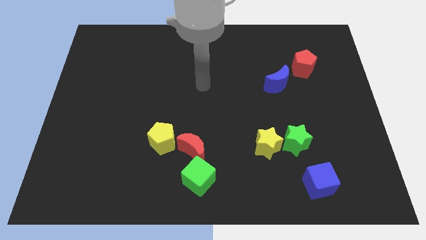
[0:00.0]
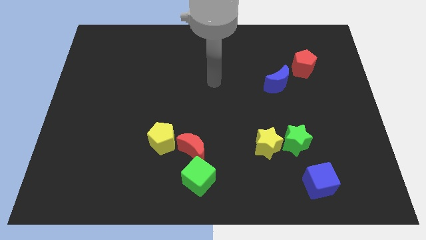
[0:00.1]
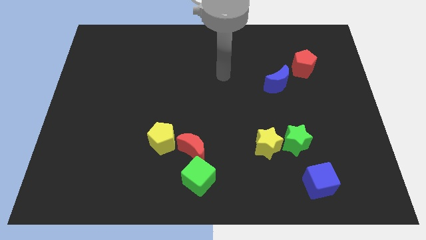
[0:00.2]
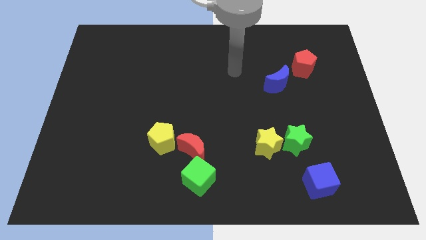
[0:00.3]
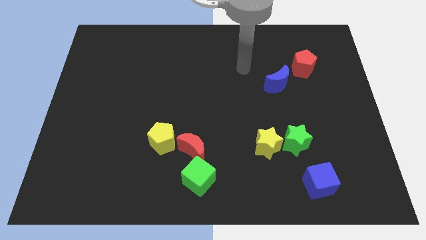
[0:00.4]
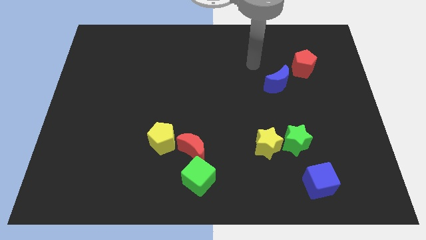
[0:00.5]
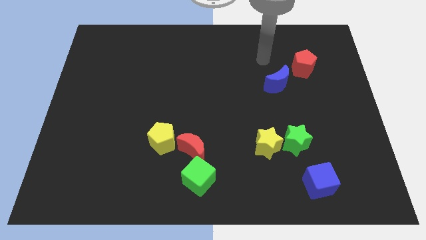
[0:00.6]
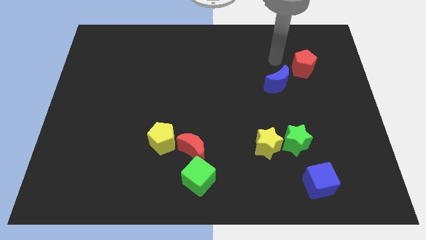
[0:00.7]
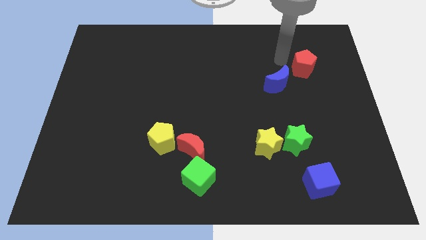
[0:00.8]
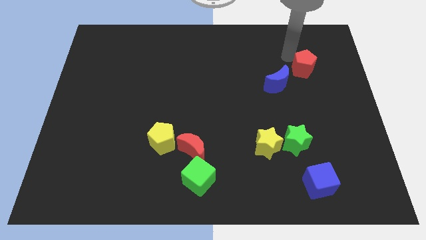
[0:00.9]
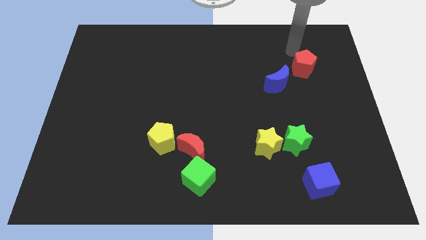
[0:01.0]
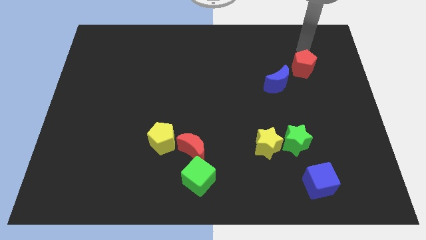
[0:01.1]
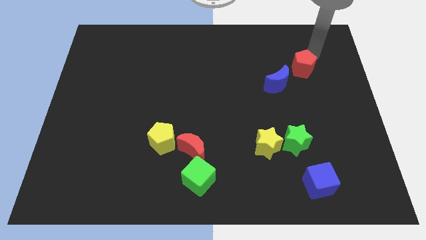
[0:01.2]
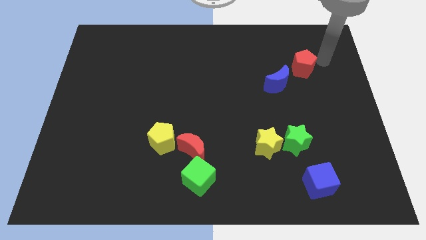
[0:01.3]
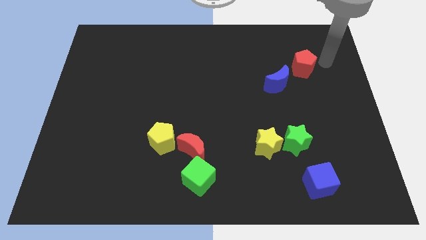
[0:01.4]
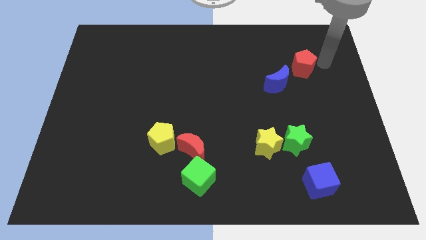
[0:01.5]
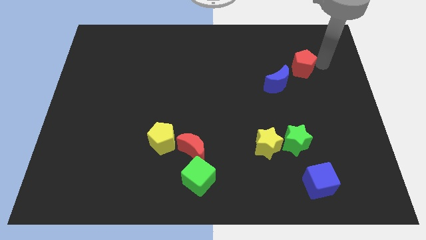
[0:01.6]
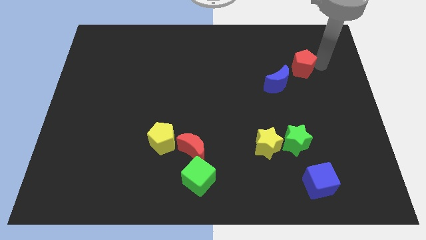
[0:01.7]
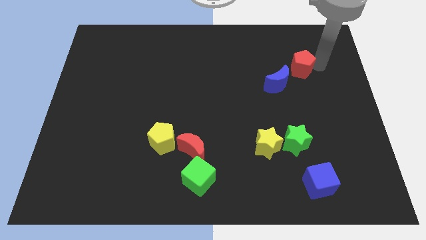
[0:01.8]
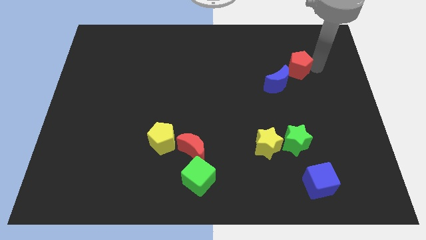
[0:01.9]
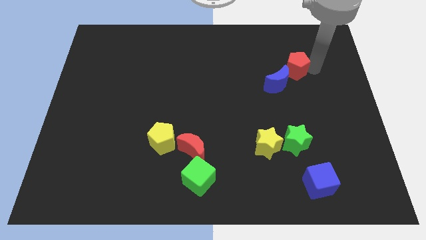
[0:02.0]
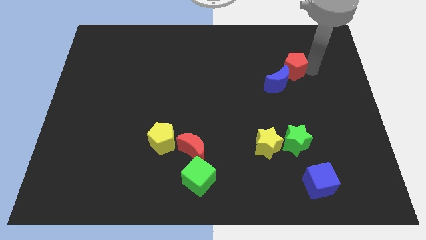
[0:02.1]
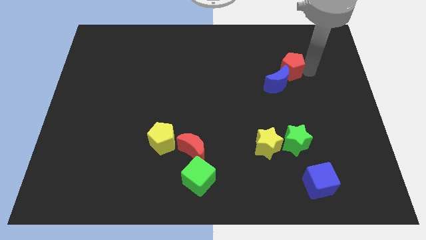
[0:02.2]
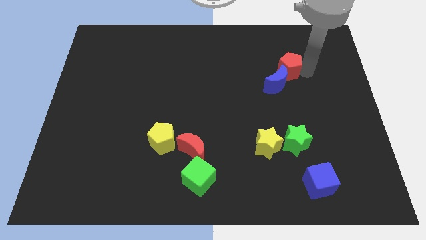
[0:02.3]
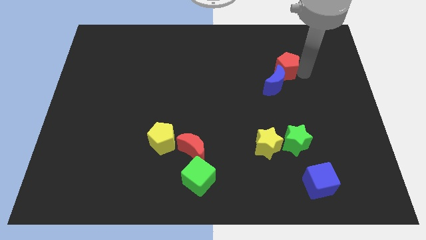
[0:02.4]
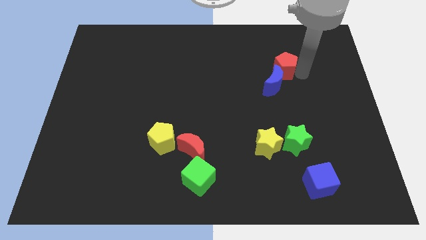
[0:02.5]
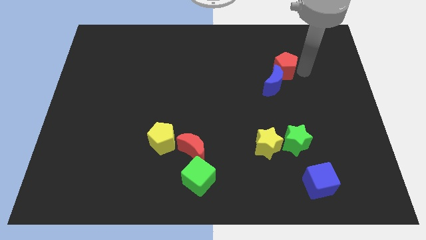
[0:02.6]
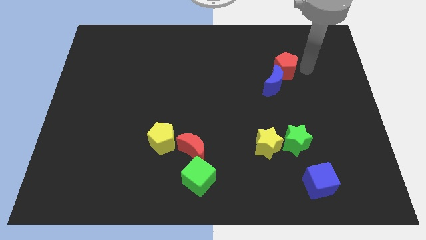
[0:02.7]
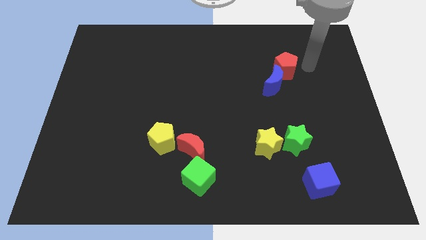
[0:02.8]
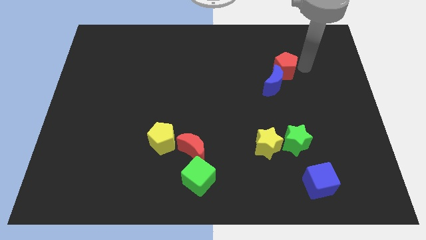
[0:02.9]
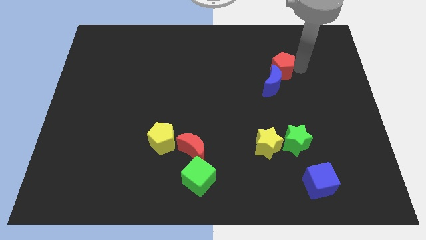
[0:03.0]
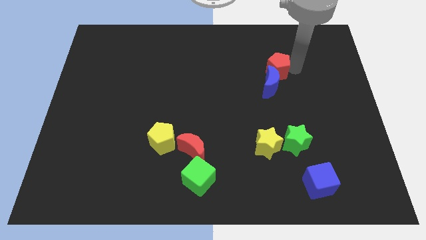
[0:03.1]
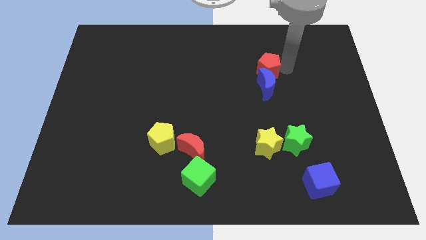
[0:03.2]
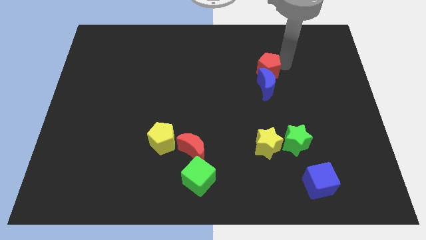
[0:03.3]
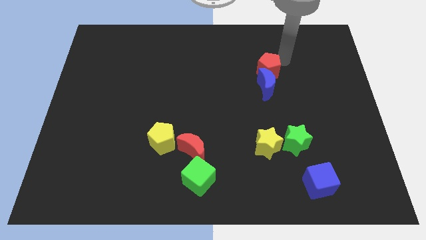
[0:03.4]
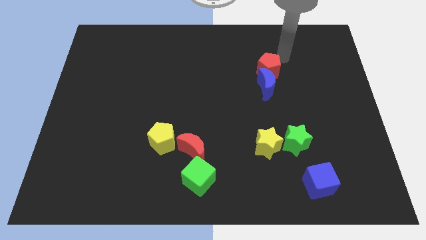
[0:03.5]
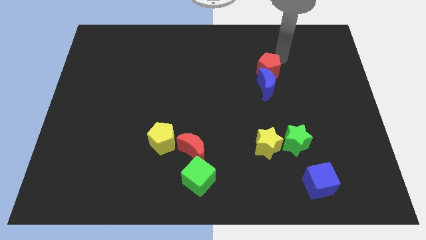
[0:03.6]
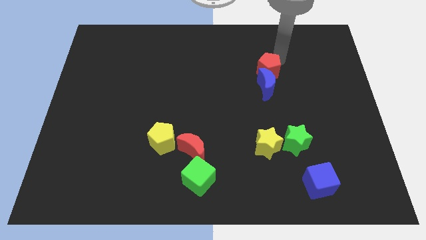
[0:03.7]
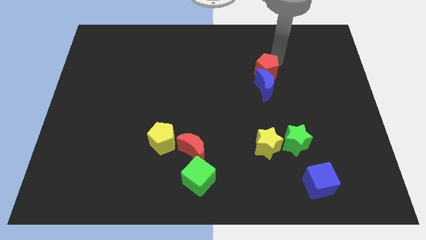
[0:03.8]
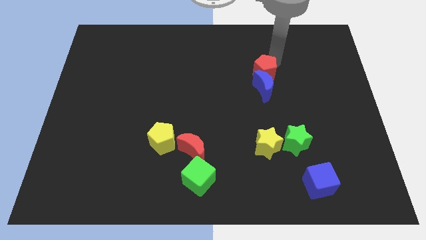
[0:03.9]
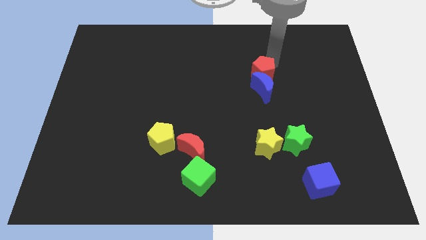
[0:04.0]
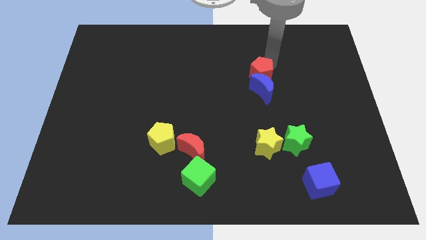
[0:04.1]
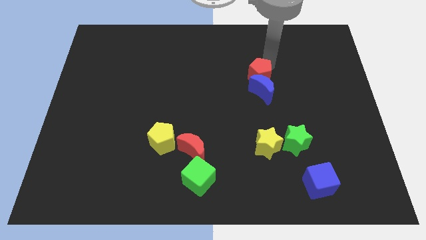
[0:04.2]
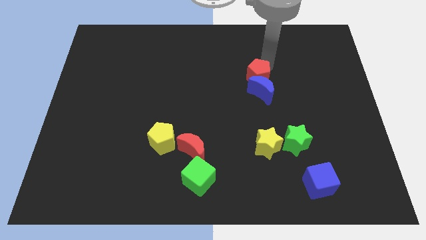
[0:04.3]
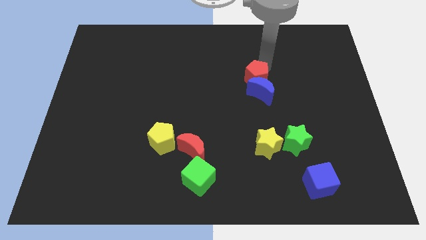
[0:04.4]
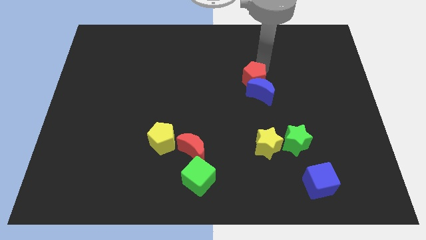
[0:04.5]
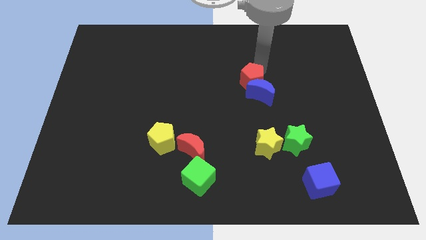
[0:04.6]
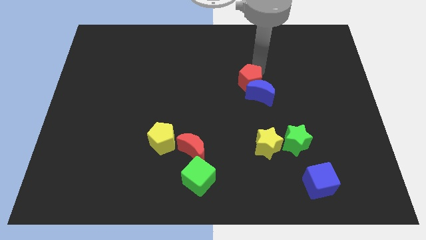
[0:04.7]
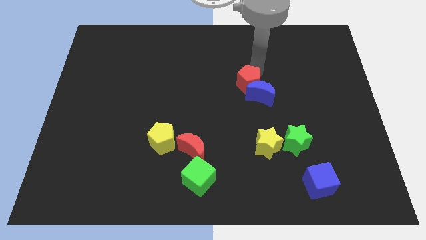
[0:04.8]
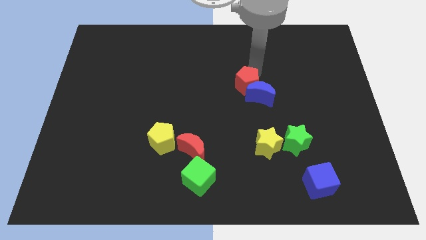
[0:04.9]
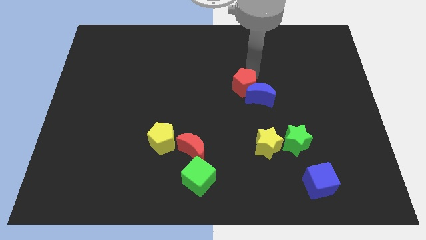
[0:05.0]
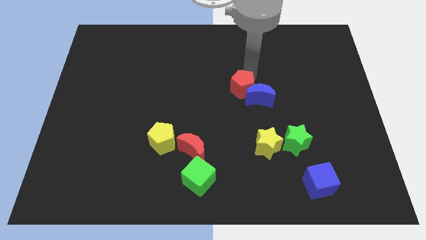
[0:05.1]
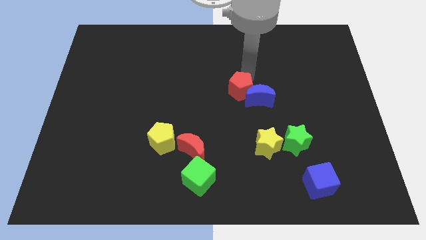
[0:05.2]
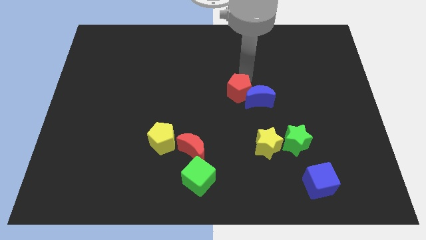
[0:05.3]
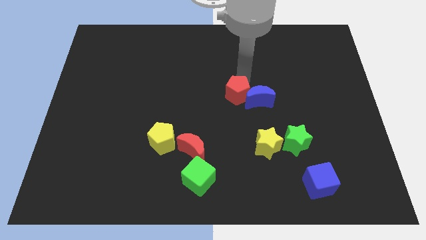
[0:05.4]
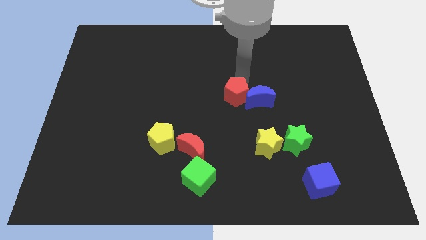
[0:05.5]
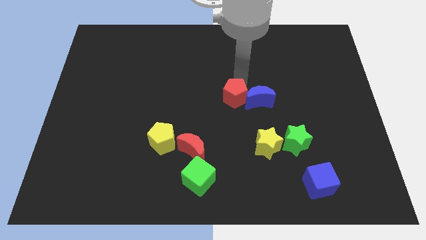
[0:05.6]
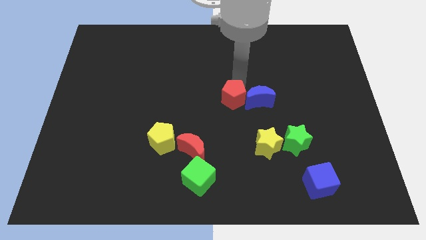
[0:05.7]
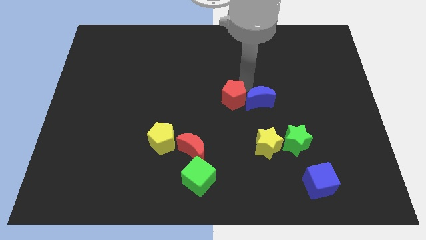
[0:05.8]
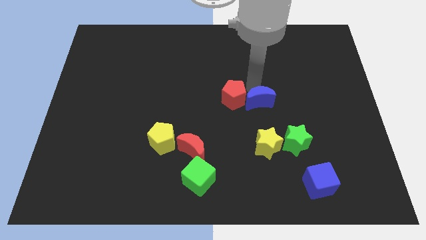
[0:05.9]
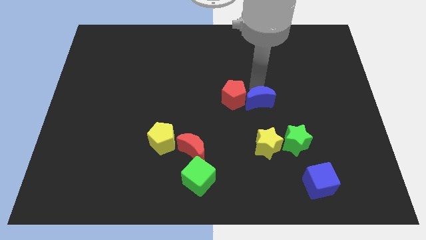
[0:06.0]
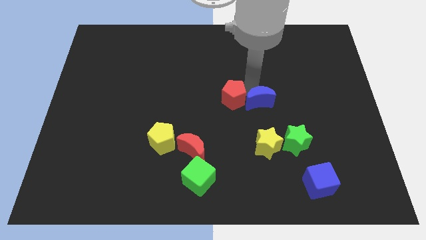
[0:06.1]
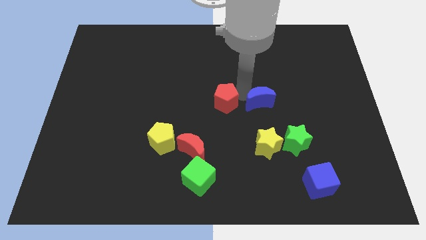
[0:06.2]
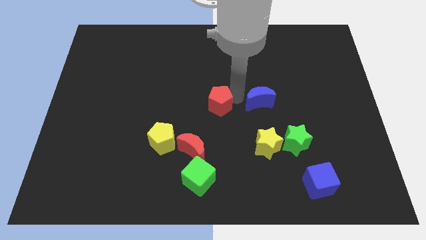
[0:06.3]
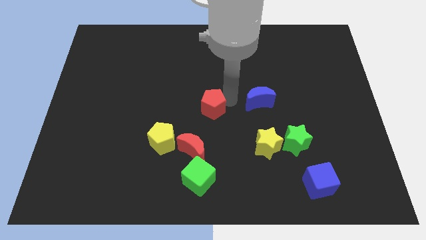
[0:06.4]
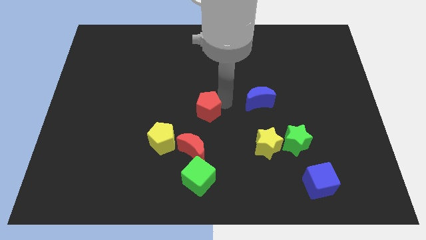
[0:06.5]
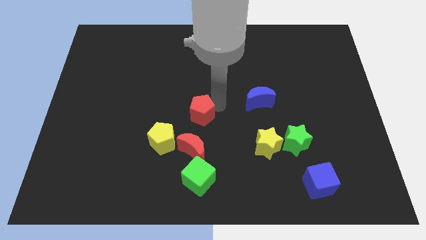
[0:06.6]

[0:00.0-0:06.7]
push the red pentagon to the top right side of the yellow pentagon
